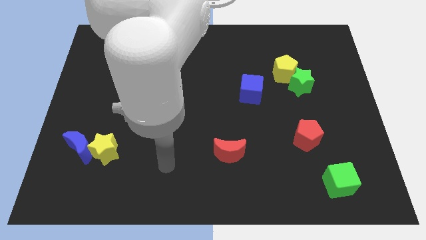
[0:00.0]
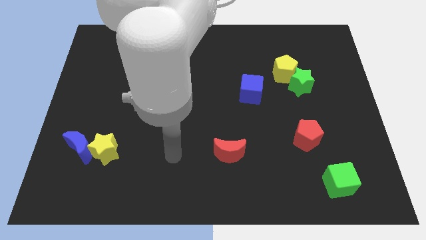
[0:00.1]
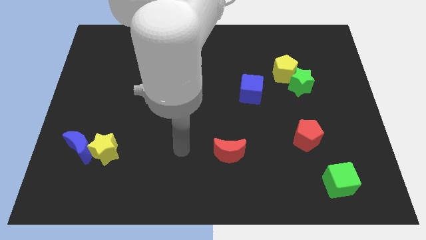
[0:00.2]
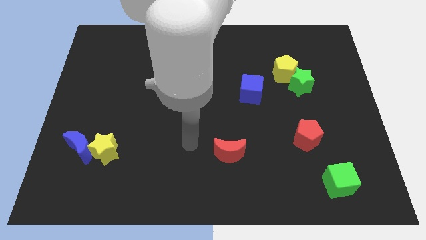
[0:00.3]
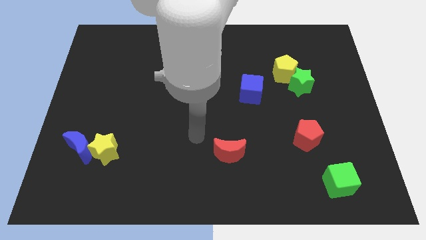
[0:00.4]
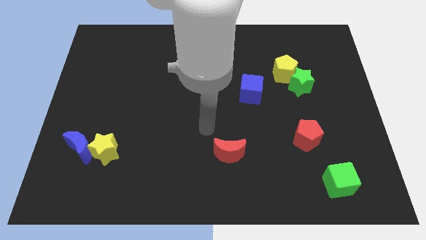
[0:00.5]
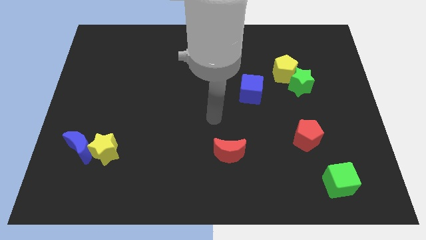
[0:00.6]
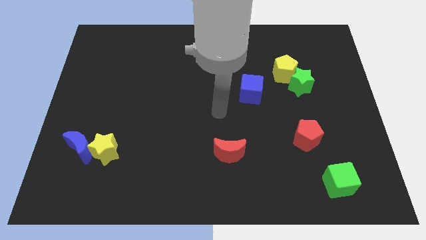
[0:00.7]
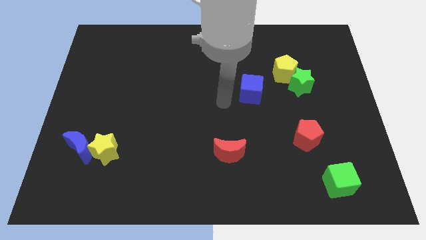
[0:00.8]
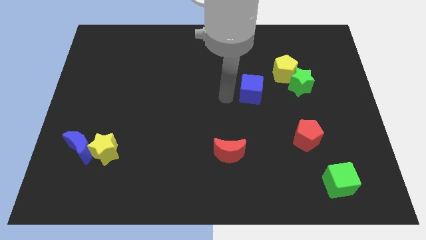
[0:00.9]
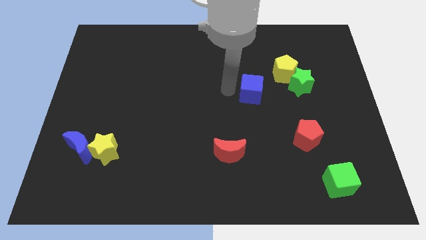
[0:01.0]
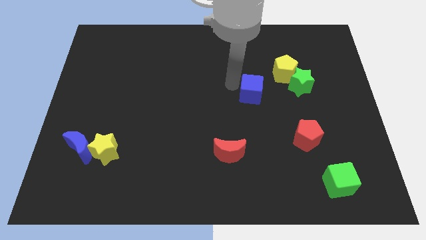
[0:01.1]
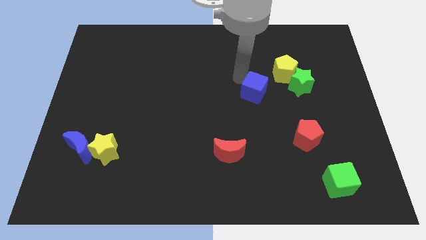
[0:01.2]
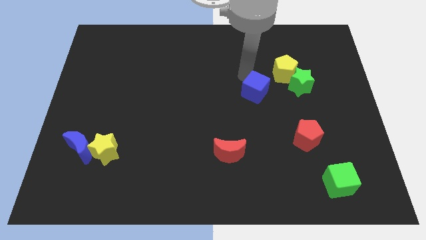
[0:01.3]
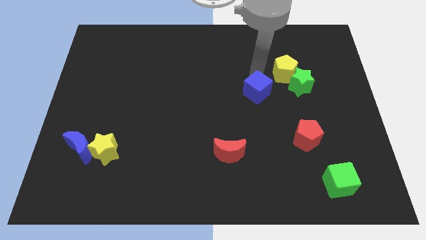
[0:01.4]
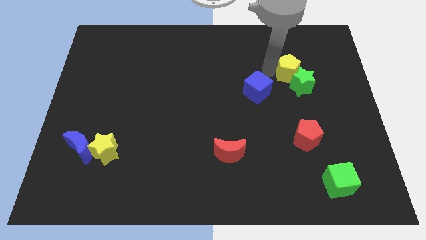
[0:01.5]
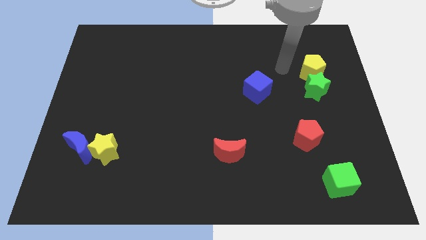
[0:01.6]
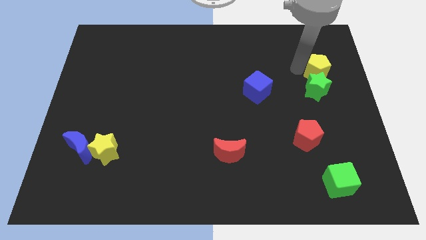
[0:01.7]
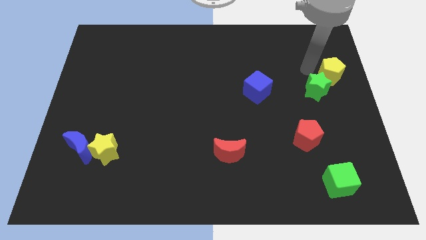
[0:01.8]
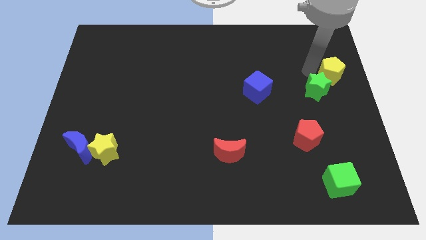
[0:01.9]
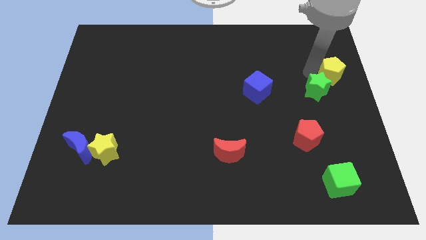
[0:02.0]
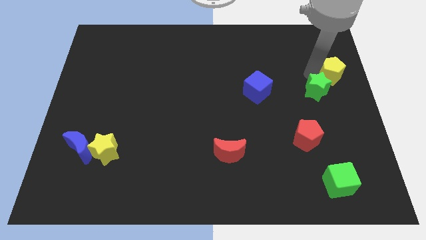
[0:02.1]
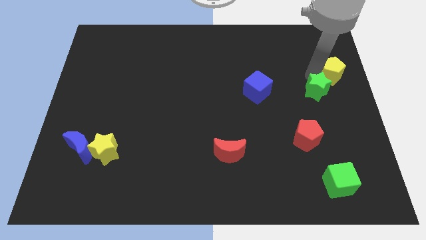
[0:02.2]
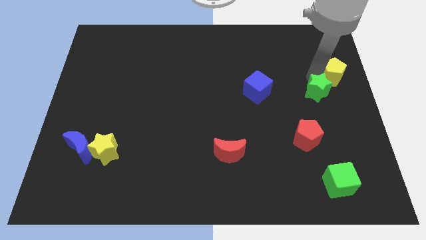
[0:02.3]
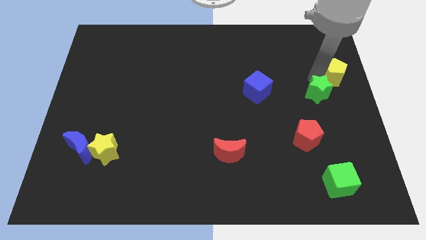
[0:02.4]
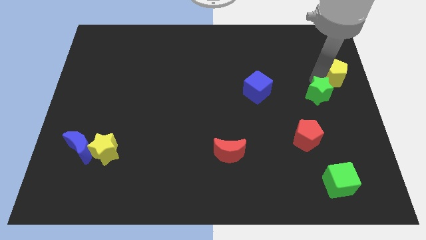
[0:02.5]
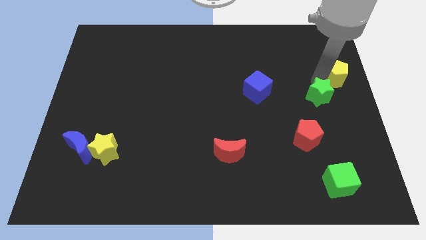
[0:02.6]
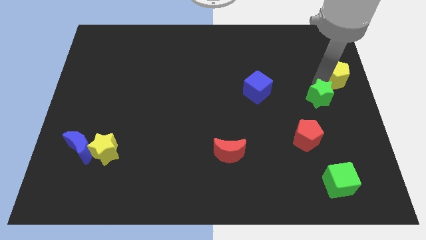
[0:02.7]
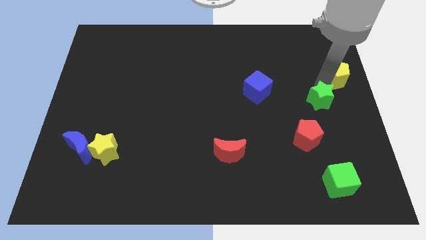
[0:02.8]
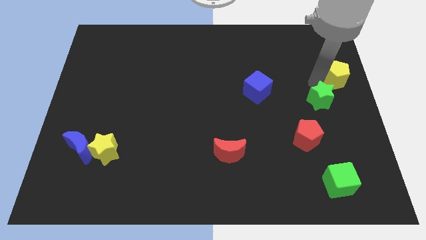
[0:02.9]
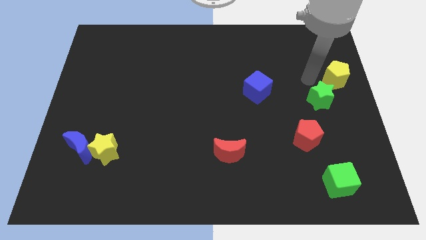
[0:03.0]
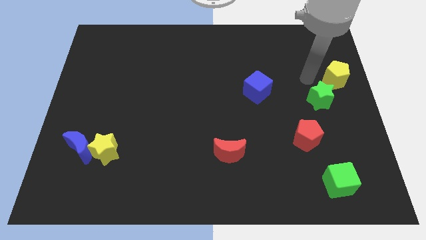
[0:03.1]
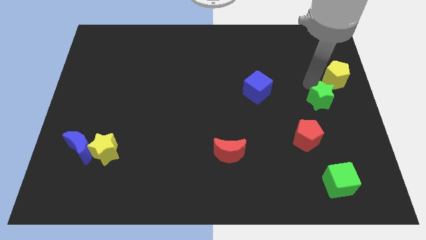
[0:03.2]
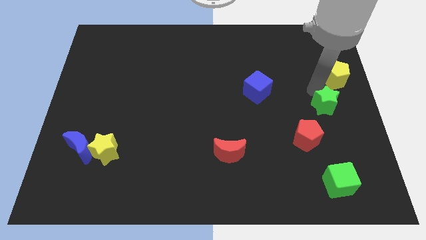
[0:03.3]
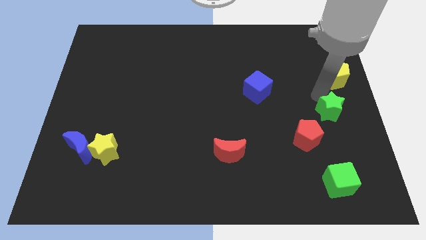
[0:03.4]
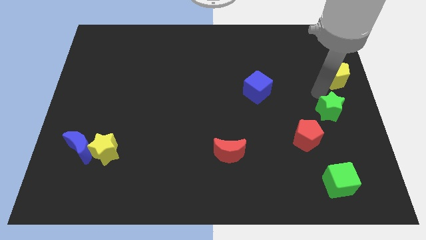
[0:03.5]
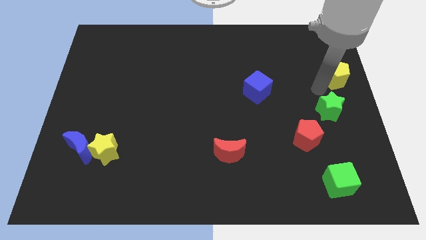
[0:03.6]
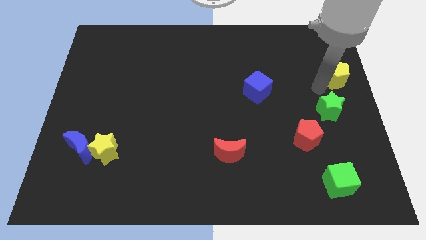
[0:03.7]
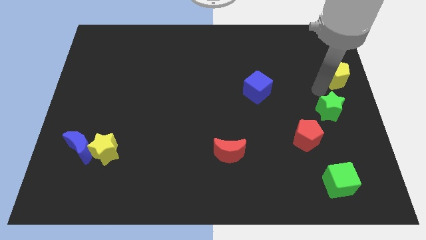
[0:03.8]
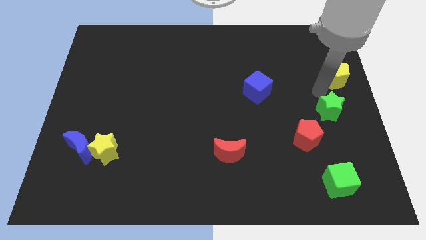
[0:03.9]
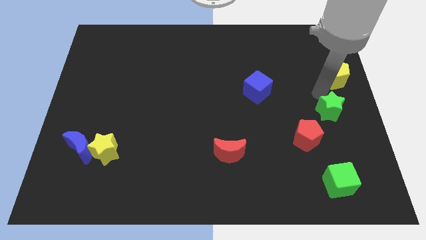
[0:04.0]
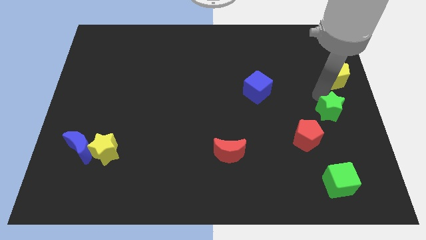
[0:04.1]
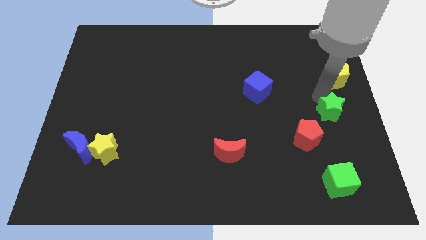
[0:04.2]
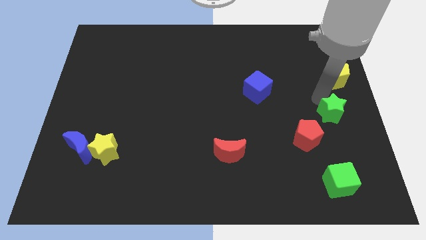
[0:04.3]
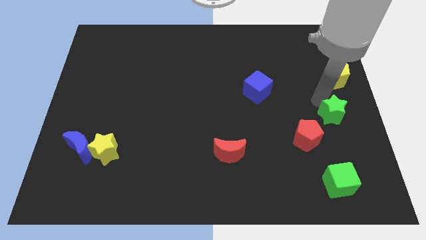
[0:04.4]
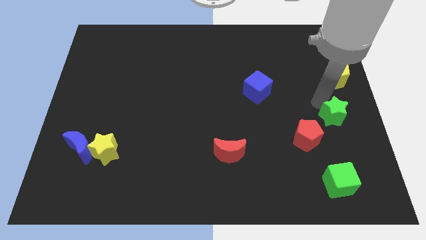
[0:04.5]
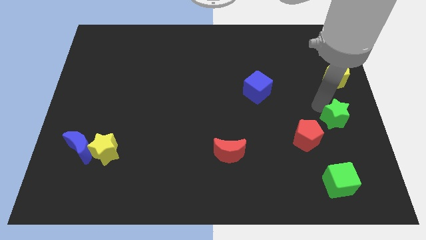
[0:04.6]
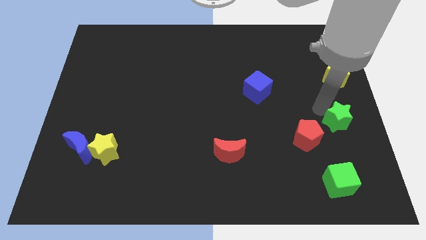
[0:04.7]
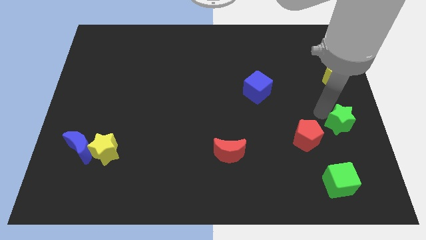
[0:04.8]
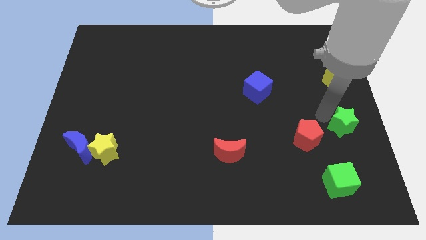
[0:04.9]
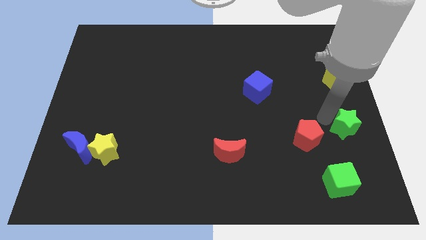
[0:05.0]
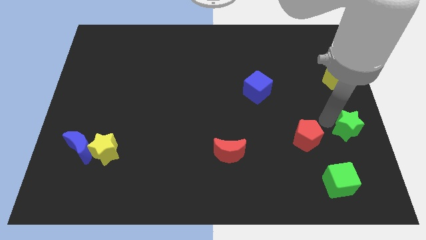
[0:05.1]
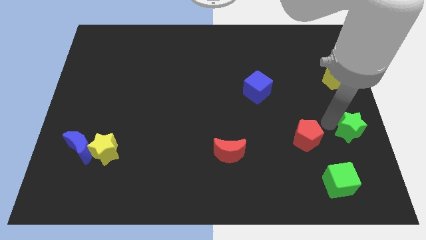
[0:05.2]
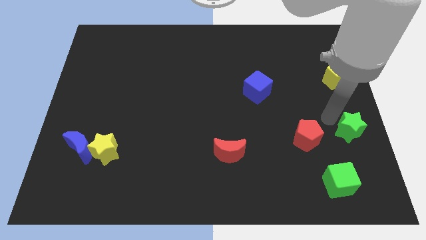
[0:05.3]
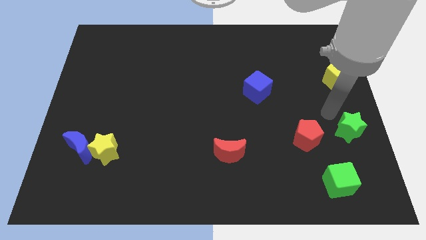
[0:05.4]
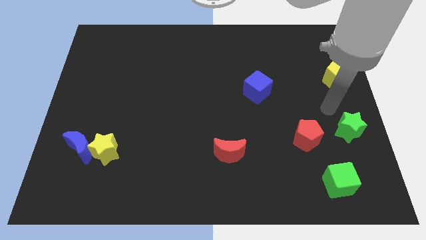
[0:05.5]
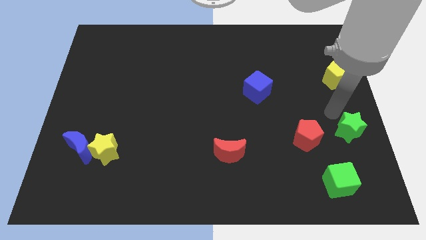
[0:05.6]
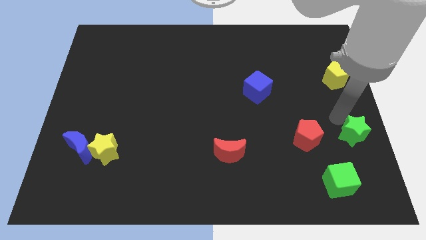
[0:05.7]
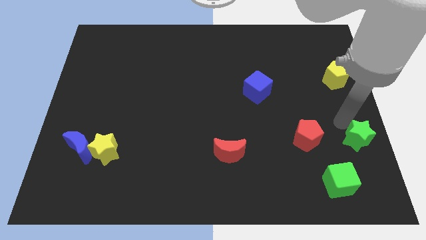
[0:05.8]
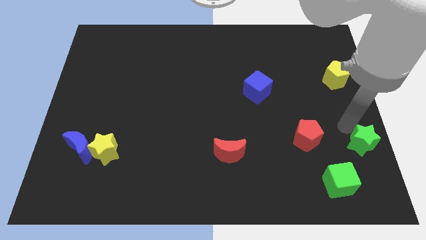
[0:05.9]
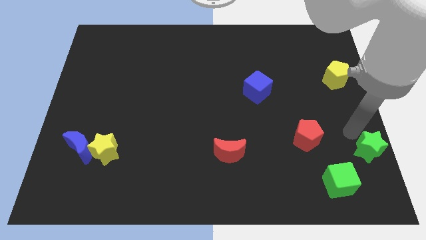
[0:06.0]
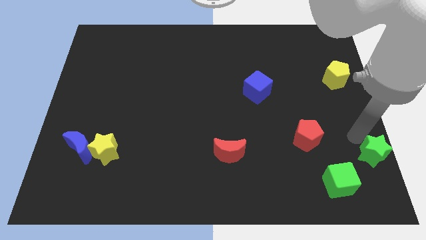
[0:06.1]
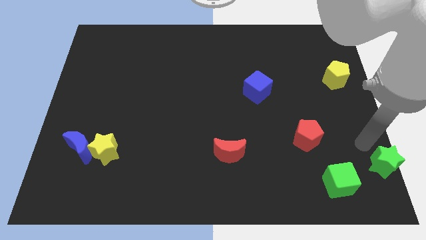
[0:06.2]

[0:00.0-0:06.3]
slide the green star to the bottom right of the board

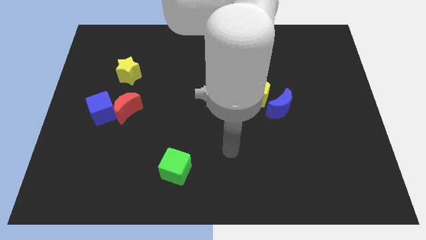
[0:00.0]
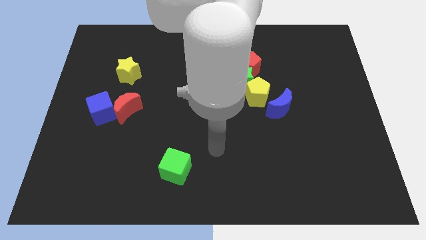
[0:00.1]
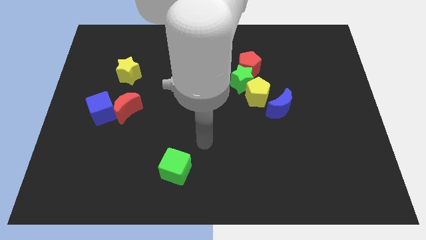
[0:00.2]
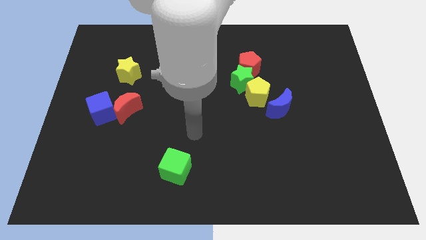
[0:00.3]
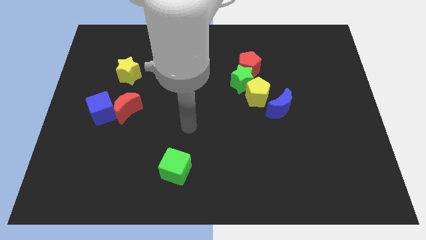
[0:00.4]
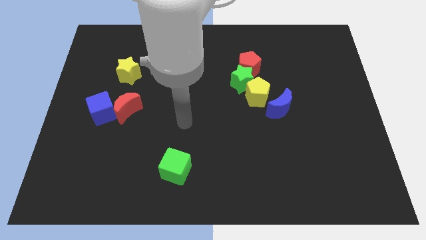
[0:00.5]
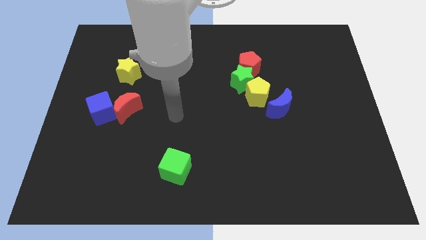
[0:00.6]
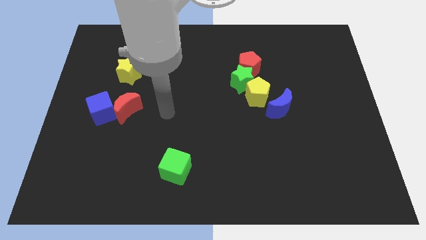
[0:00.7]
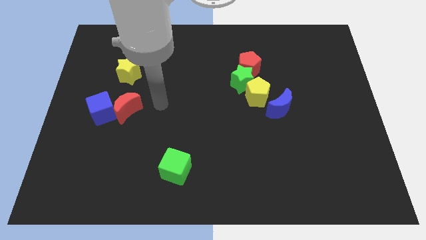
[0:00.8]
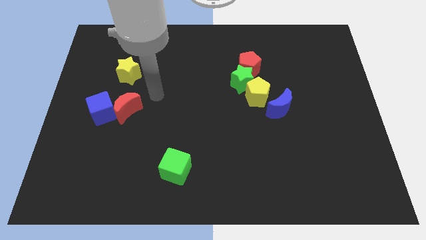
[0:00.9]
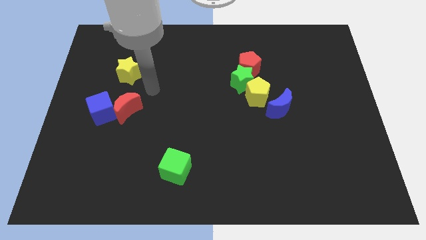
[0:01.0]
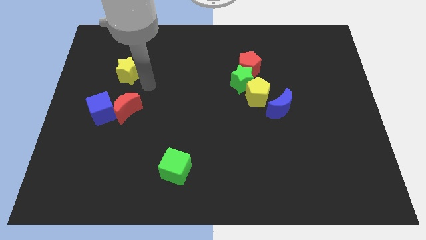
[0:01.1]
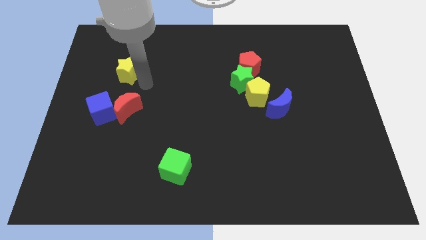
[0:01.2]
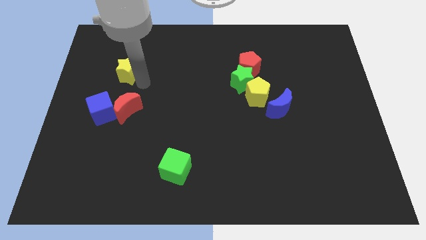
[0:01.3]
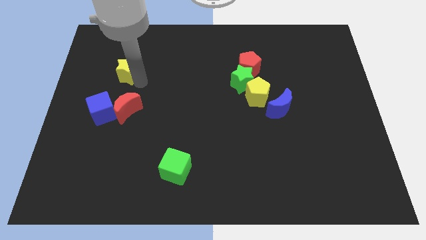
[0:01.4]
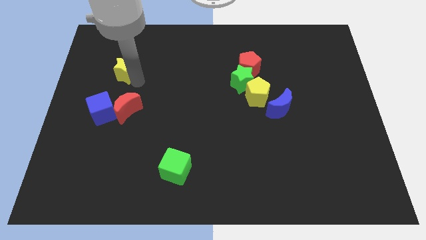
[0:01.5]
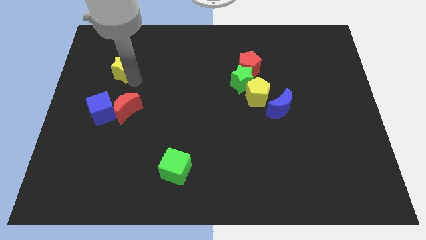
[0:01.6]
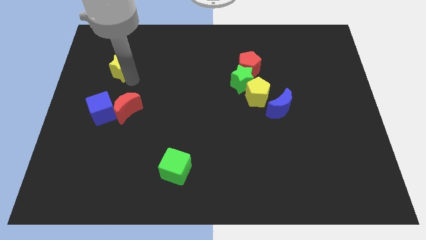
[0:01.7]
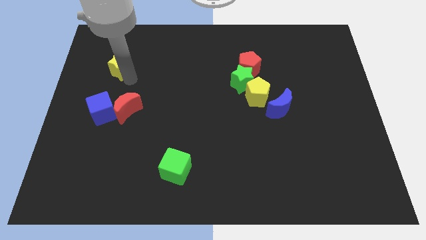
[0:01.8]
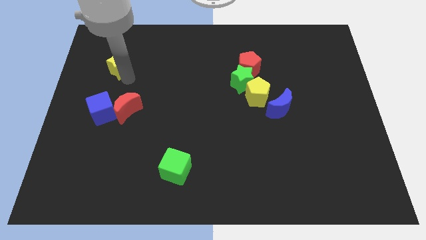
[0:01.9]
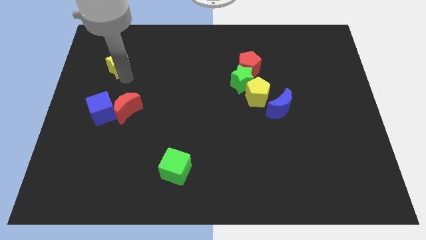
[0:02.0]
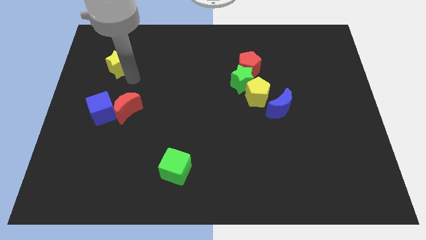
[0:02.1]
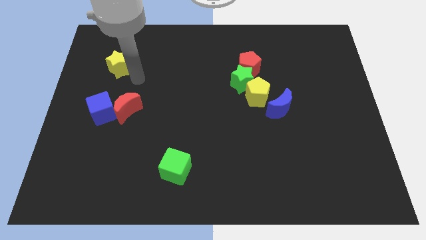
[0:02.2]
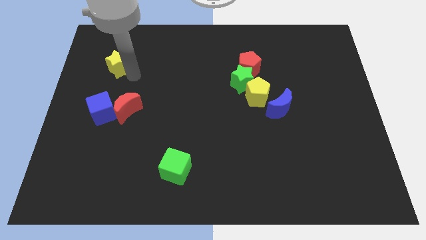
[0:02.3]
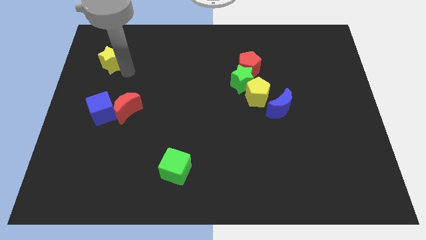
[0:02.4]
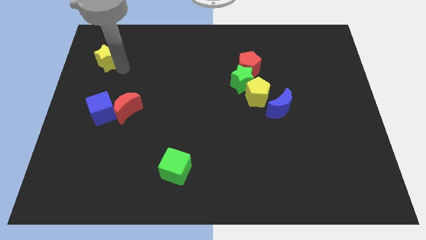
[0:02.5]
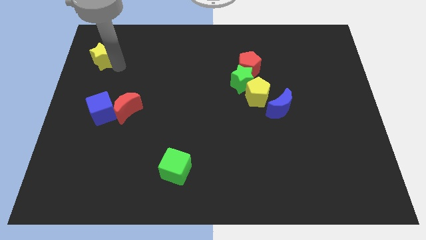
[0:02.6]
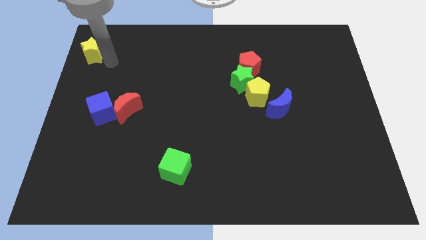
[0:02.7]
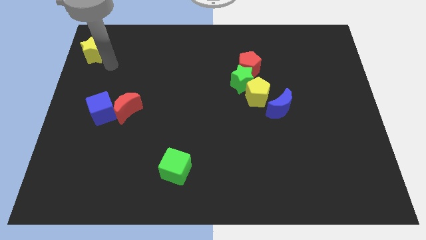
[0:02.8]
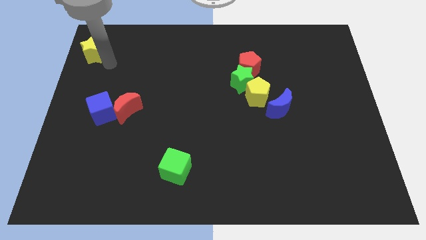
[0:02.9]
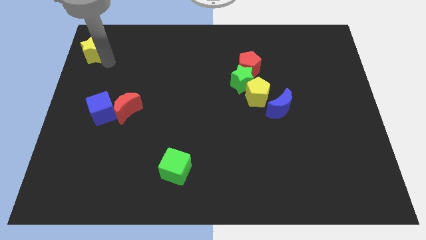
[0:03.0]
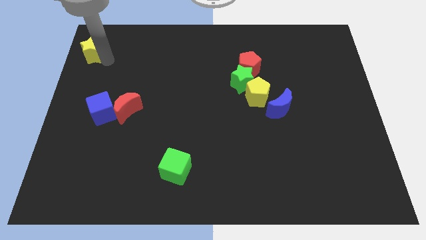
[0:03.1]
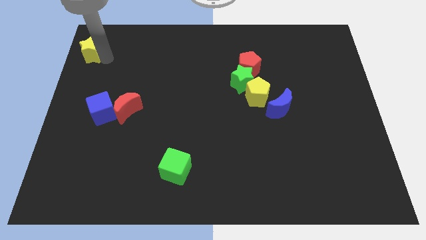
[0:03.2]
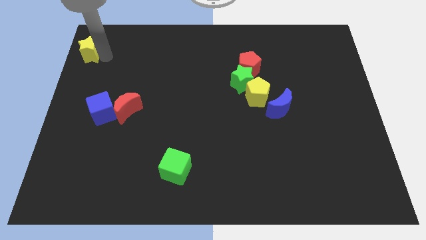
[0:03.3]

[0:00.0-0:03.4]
push the yellow star to the top left
